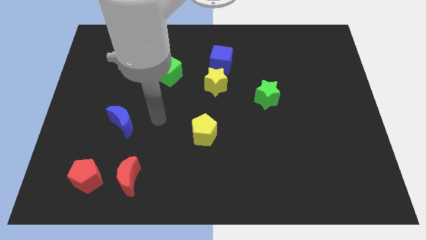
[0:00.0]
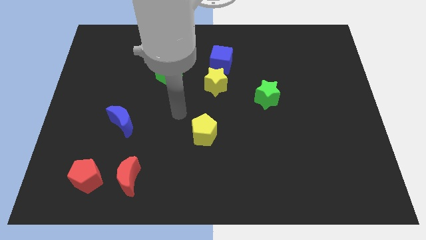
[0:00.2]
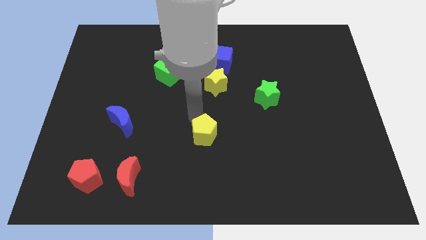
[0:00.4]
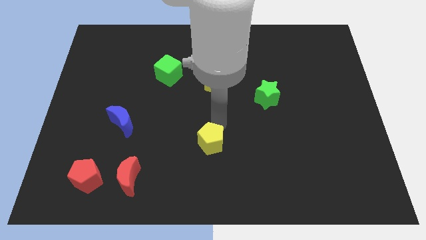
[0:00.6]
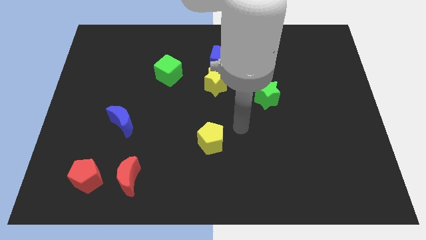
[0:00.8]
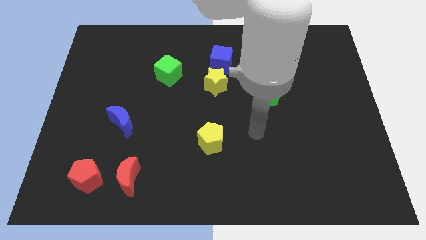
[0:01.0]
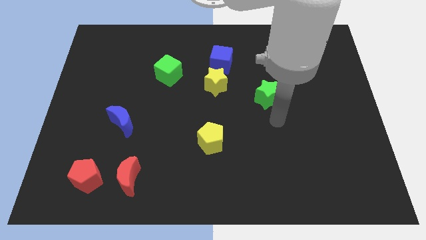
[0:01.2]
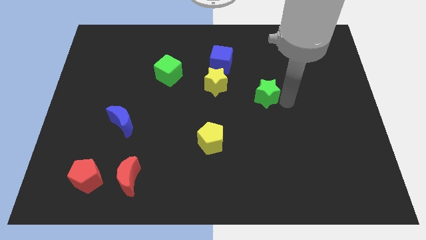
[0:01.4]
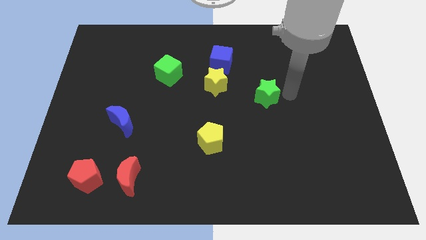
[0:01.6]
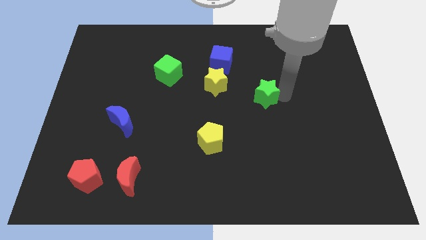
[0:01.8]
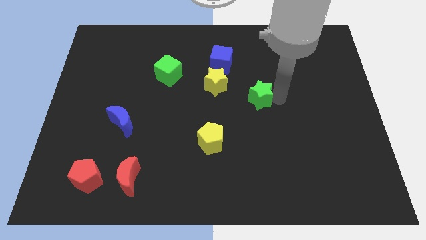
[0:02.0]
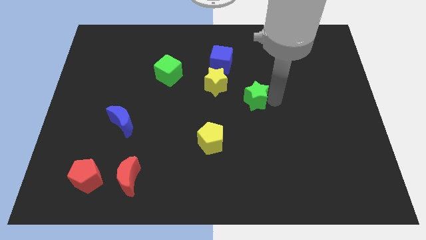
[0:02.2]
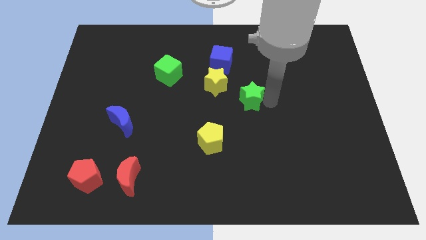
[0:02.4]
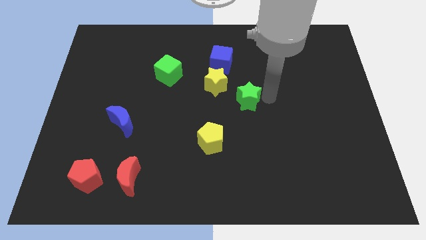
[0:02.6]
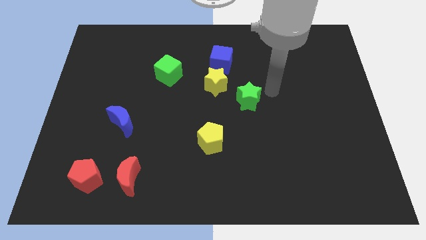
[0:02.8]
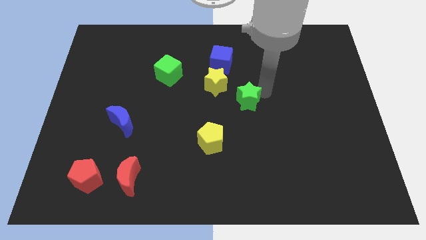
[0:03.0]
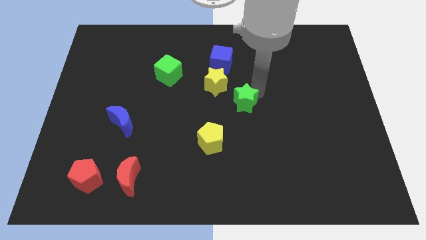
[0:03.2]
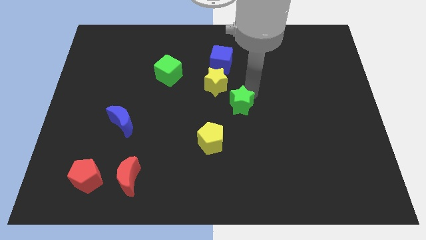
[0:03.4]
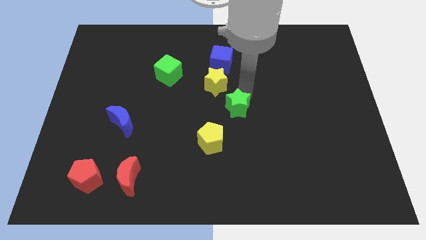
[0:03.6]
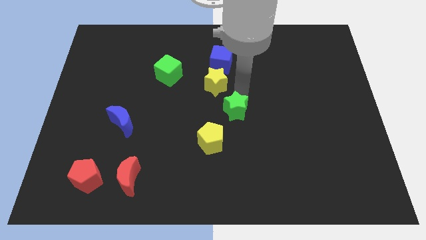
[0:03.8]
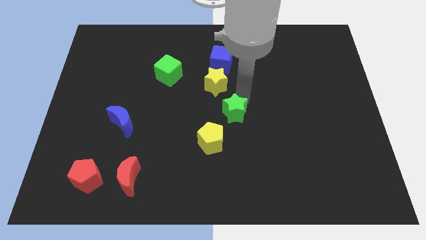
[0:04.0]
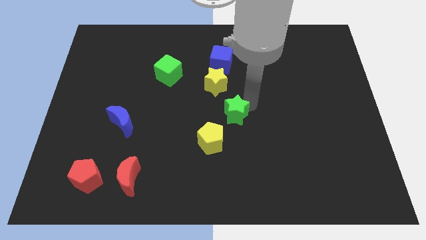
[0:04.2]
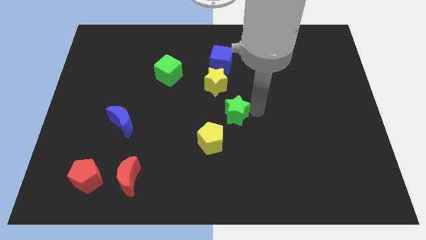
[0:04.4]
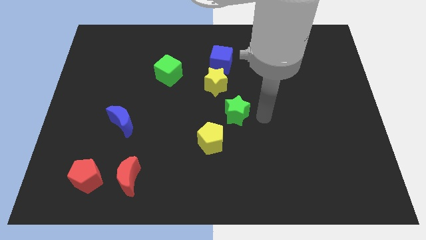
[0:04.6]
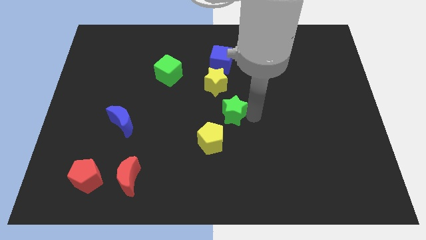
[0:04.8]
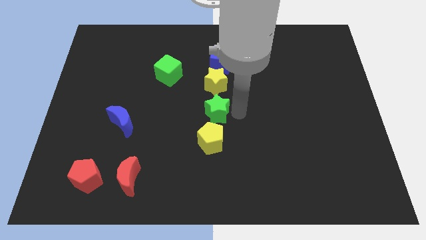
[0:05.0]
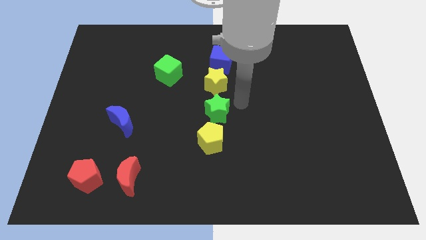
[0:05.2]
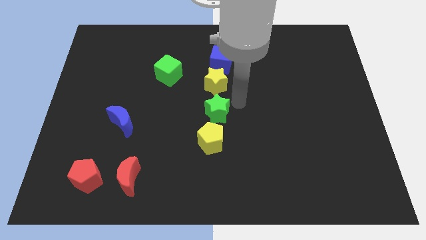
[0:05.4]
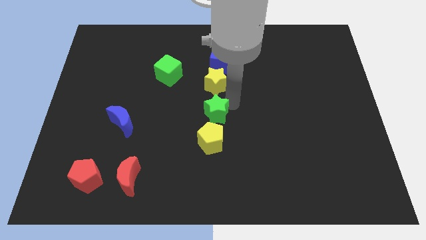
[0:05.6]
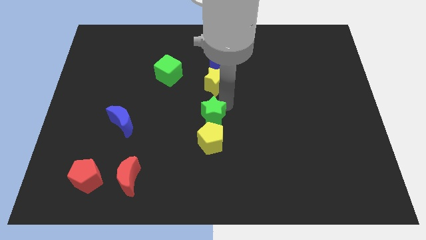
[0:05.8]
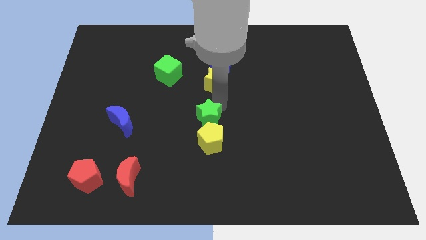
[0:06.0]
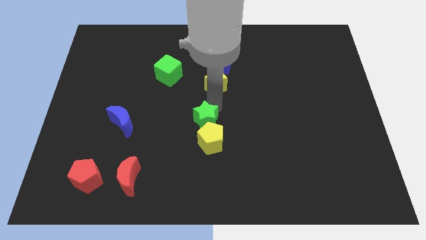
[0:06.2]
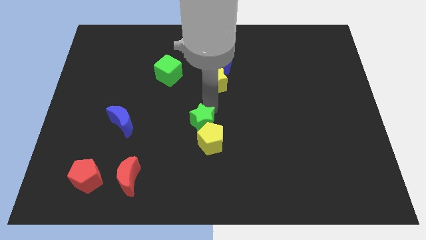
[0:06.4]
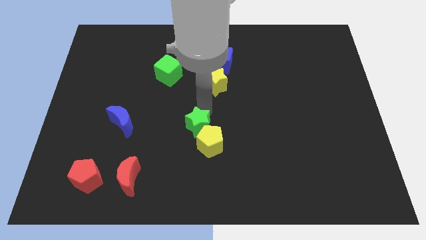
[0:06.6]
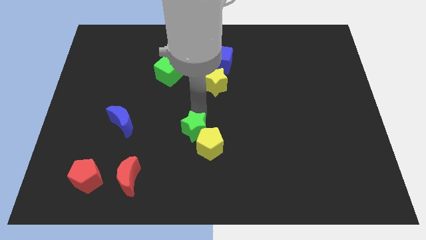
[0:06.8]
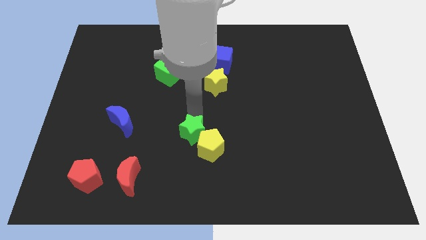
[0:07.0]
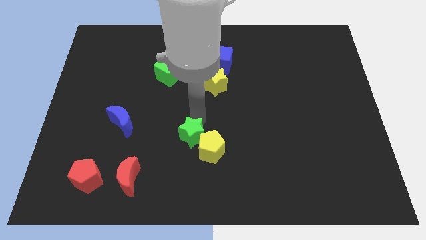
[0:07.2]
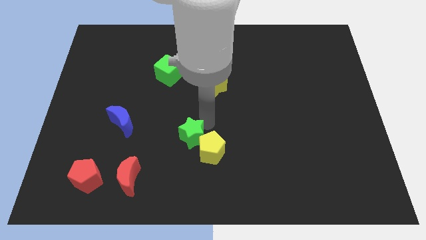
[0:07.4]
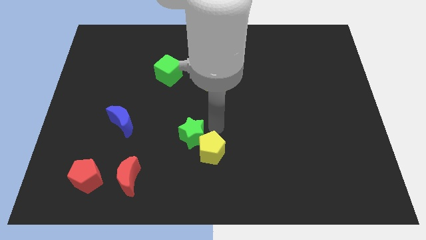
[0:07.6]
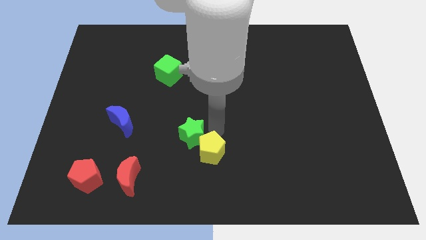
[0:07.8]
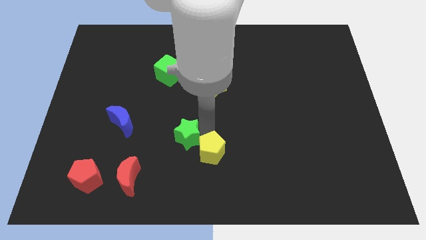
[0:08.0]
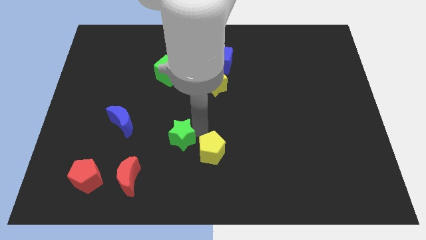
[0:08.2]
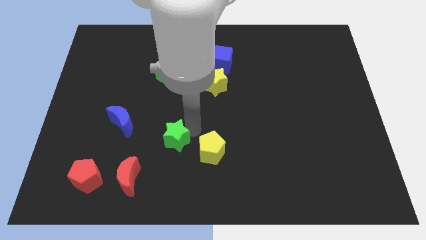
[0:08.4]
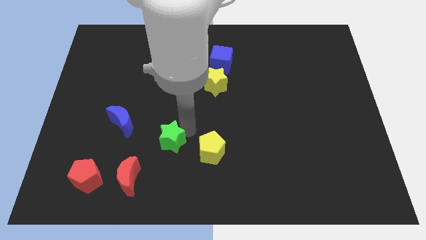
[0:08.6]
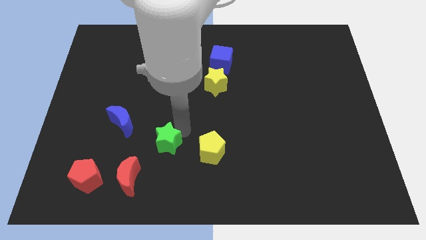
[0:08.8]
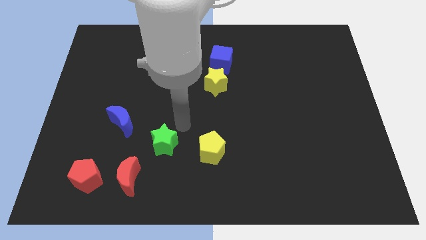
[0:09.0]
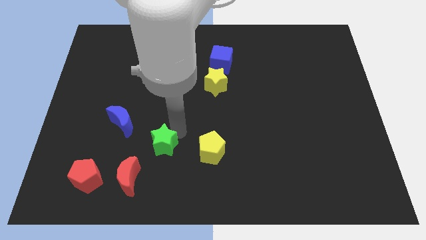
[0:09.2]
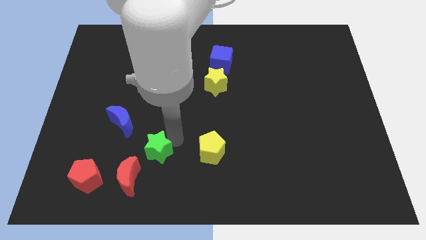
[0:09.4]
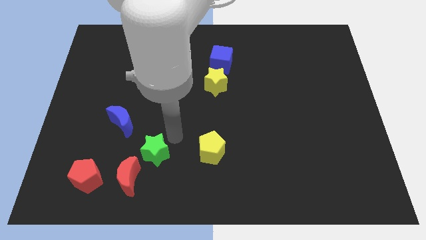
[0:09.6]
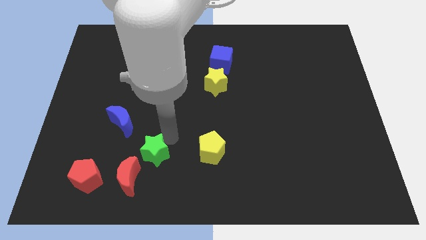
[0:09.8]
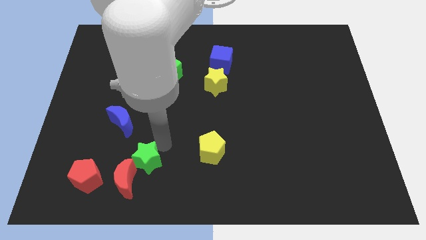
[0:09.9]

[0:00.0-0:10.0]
slide the green star towards the red moon

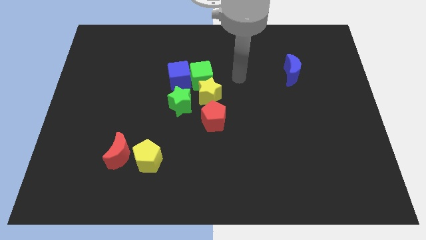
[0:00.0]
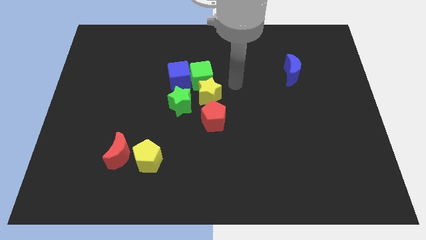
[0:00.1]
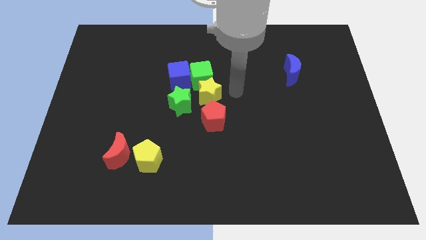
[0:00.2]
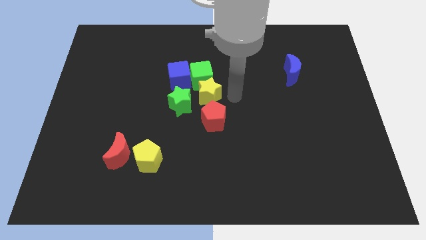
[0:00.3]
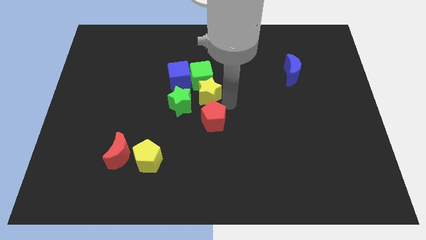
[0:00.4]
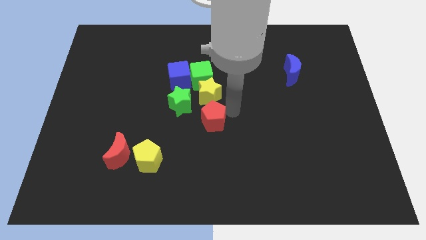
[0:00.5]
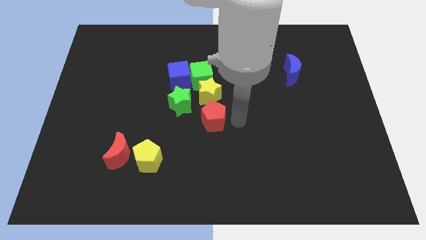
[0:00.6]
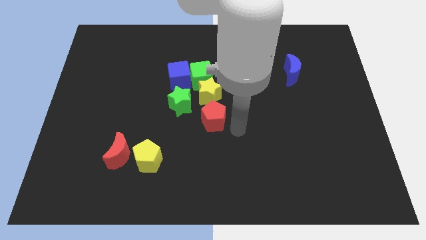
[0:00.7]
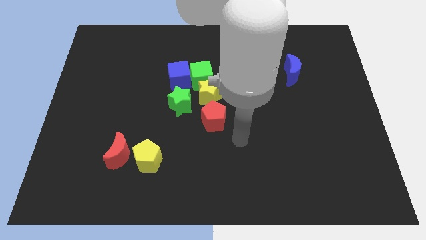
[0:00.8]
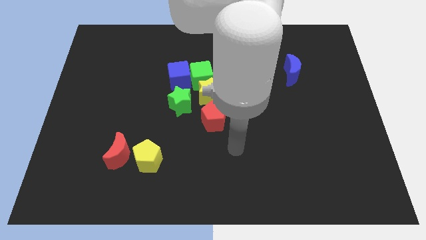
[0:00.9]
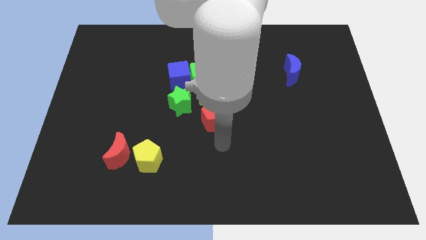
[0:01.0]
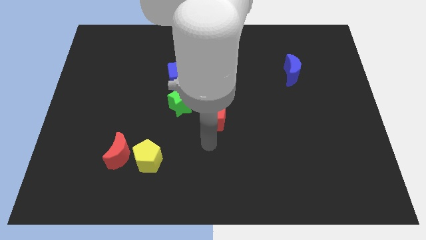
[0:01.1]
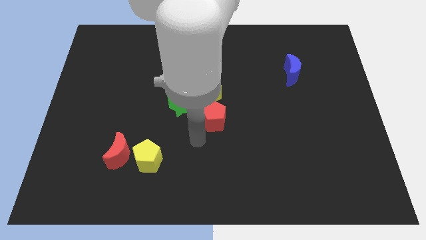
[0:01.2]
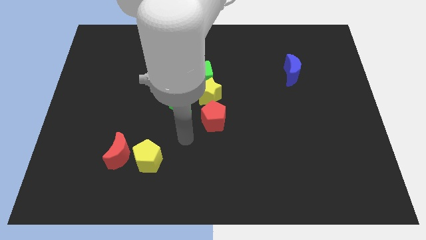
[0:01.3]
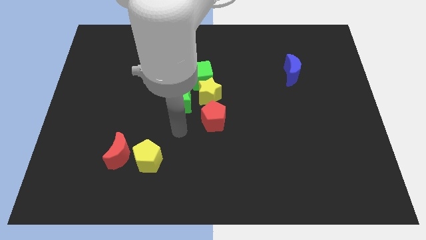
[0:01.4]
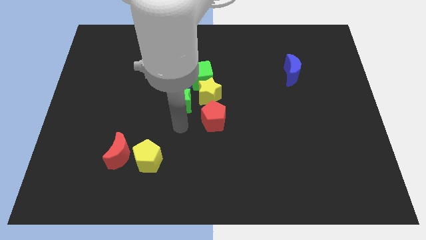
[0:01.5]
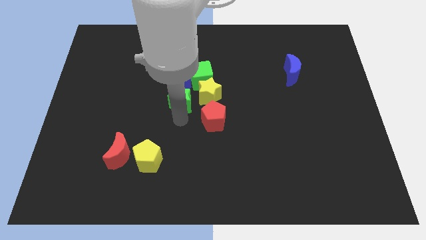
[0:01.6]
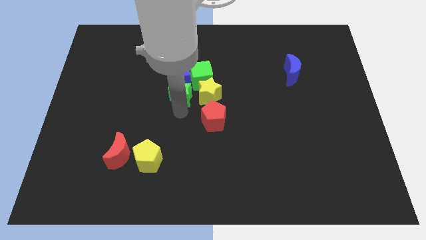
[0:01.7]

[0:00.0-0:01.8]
put the green star next to the blue cube
